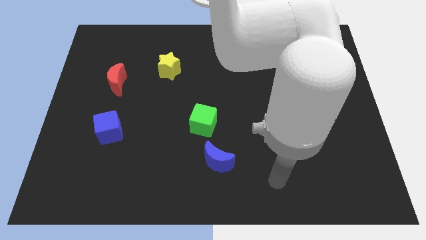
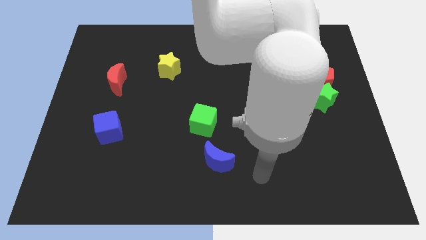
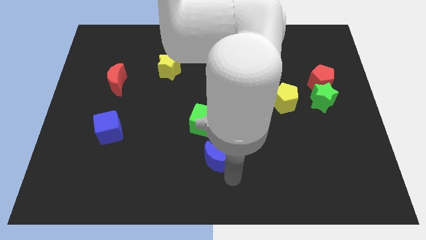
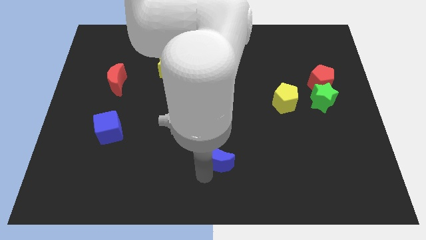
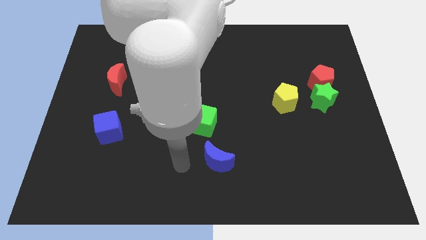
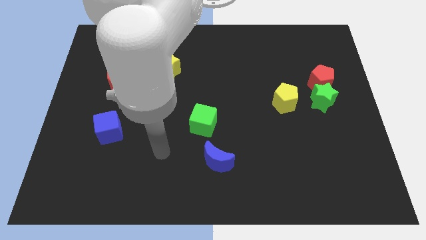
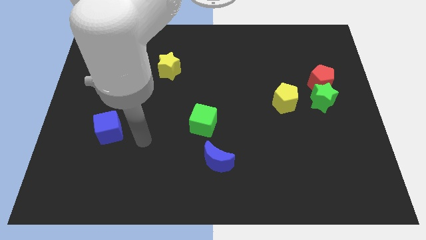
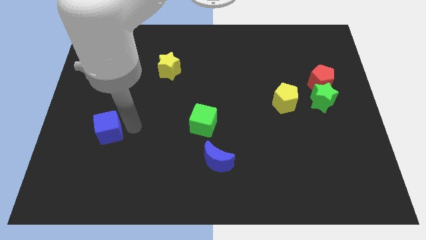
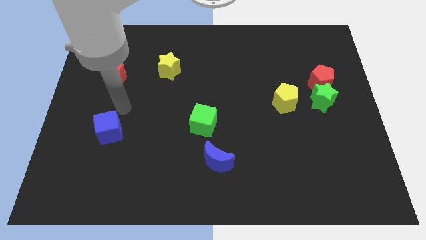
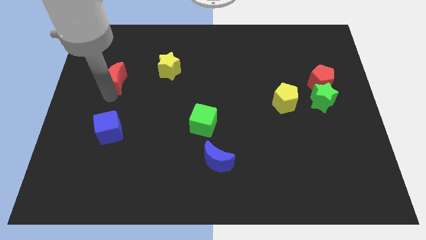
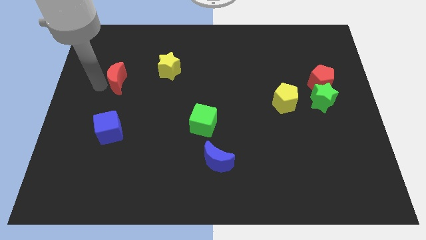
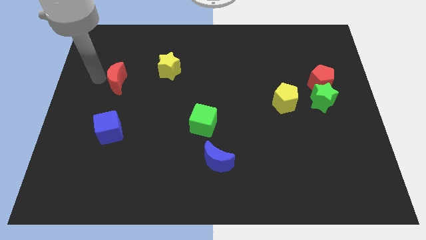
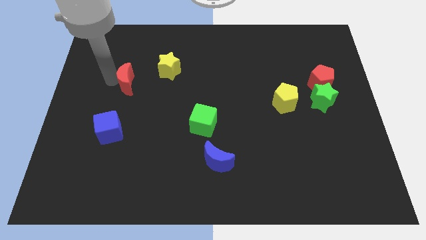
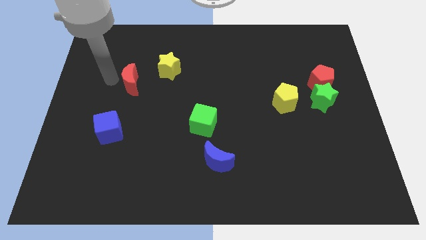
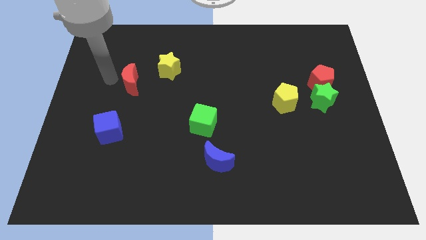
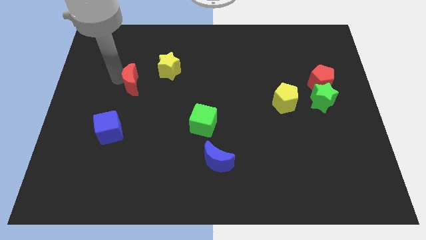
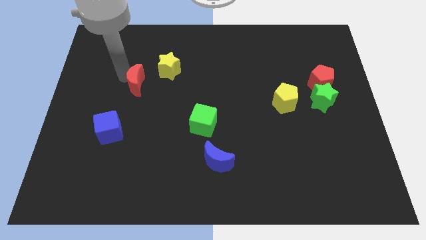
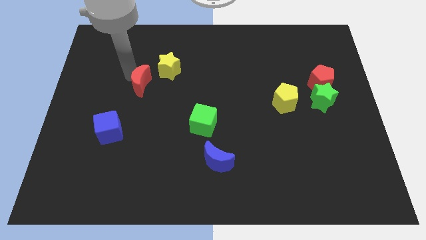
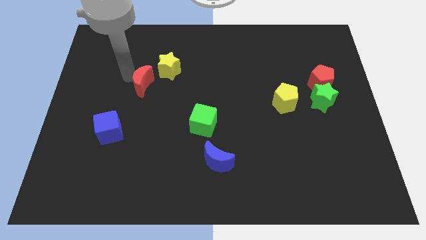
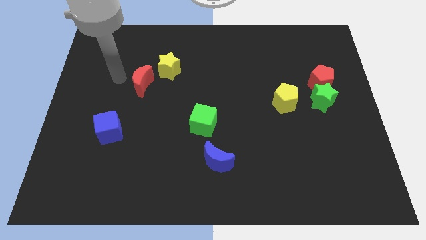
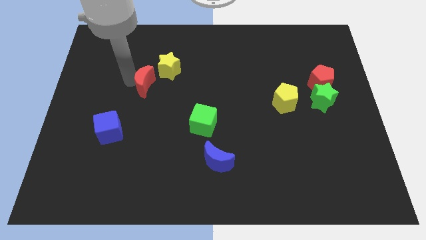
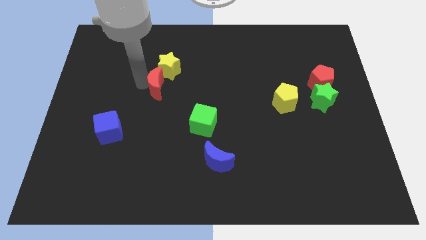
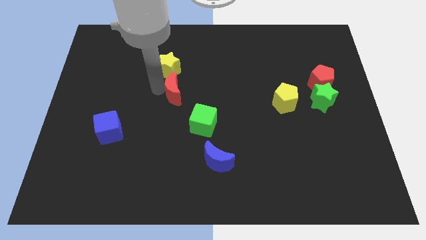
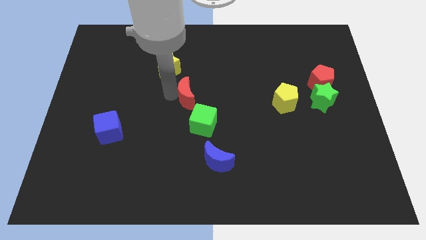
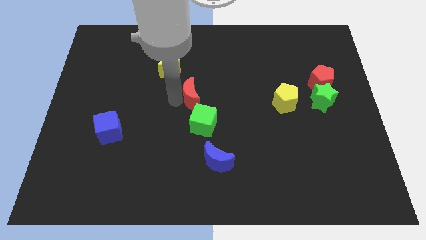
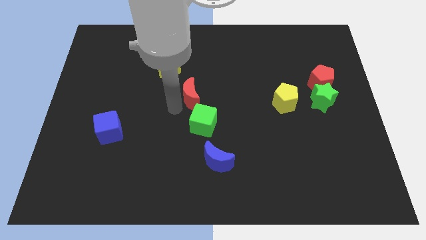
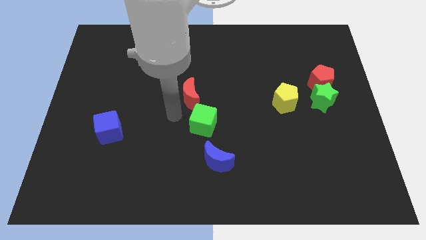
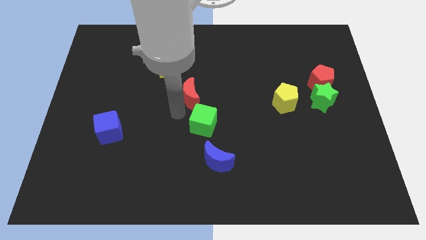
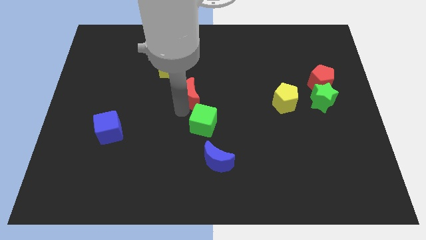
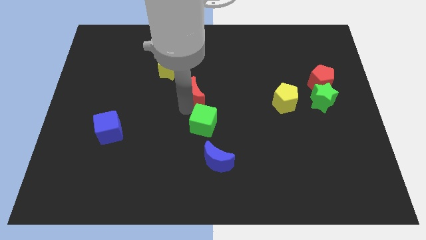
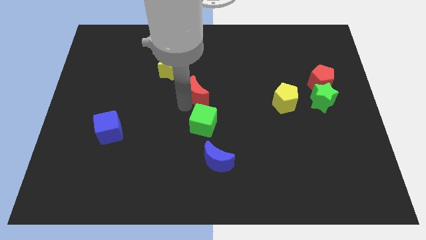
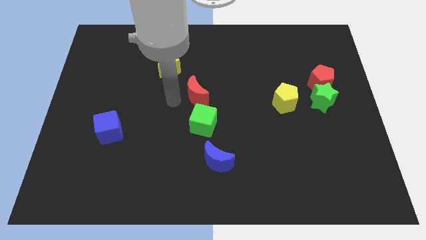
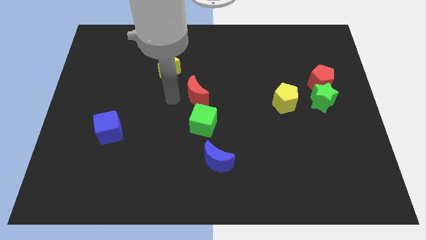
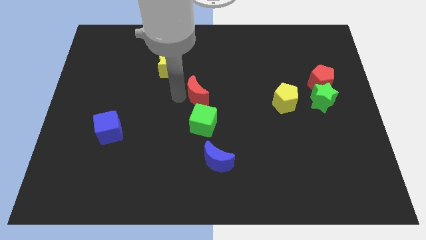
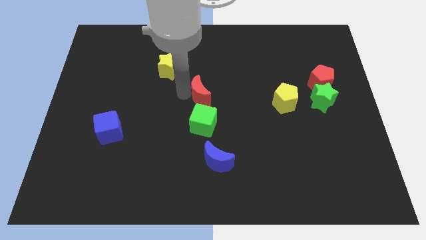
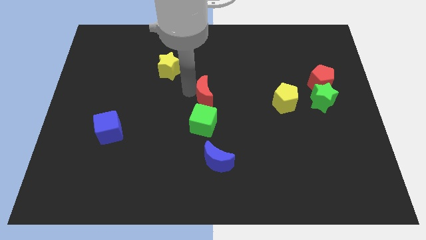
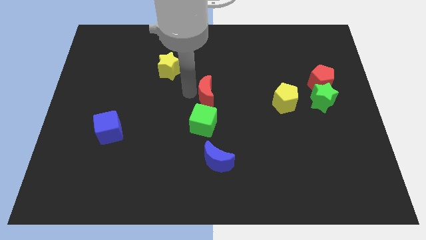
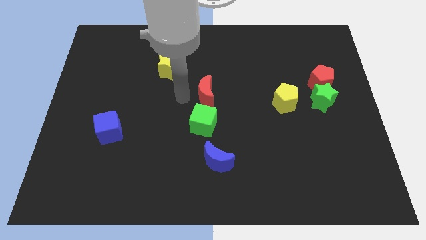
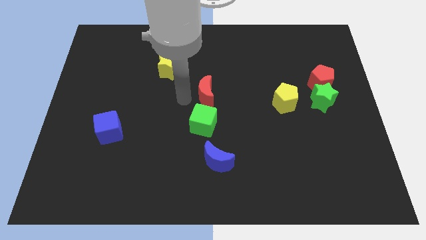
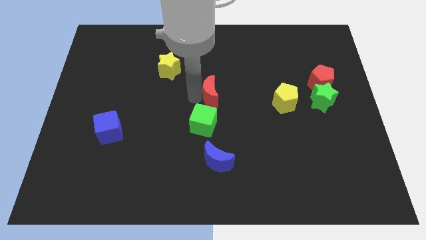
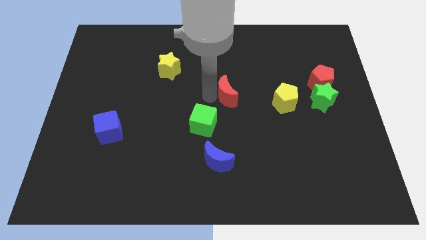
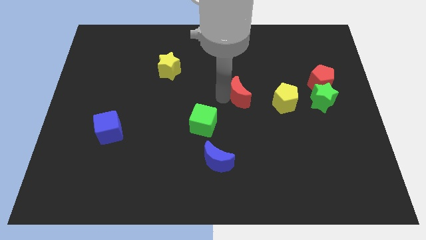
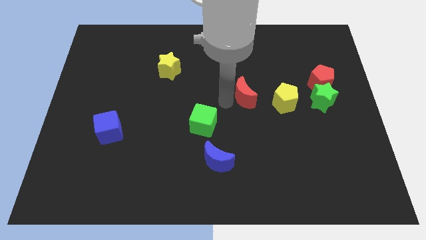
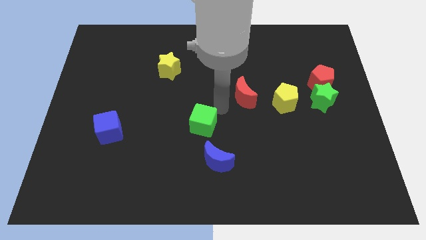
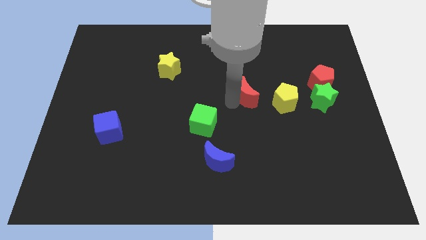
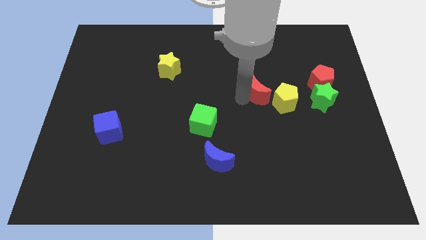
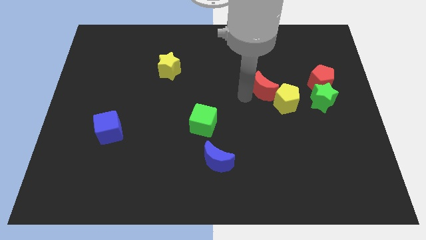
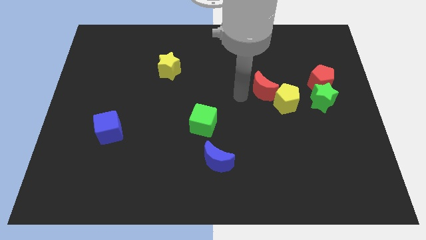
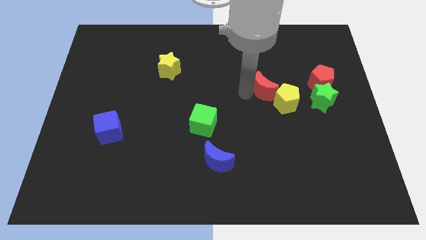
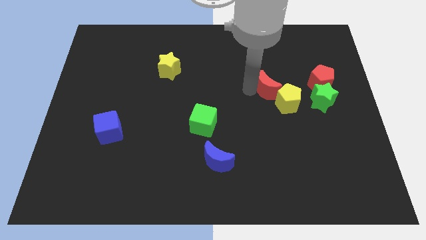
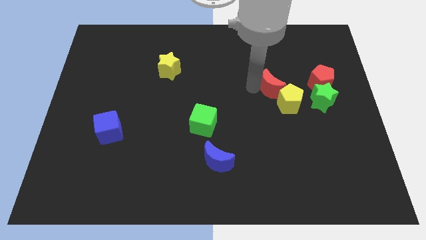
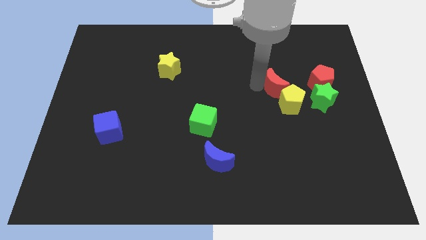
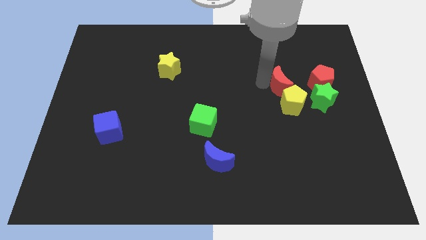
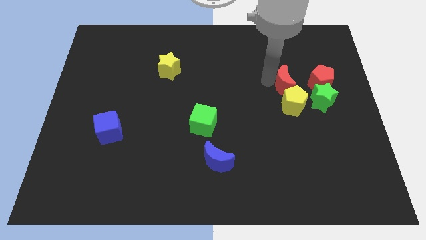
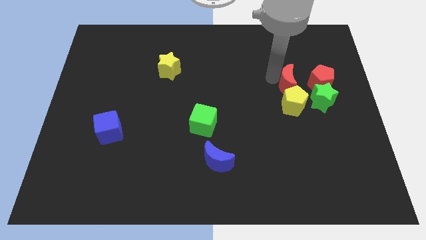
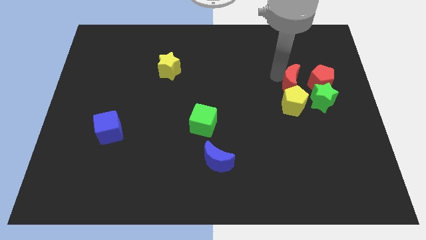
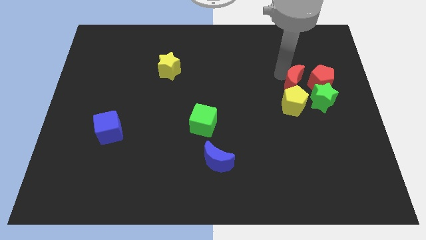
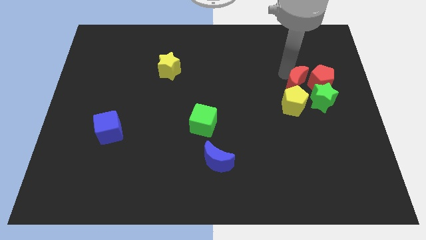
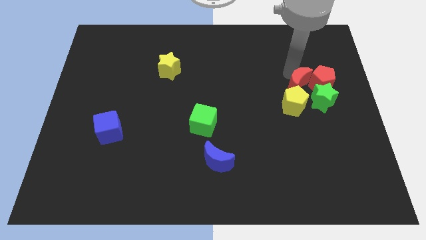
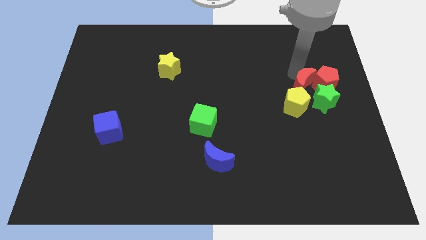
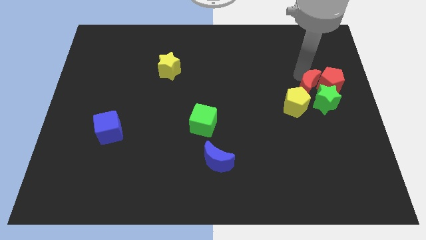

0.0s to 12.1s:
move the red moon towards the green star

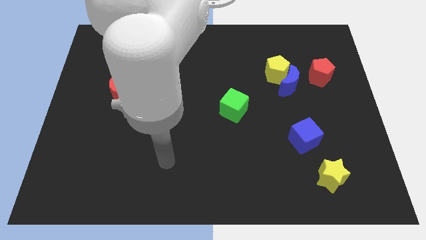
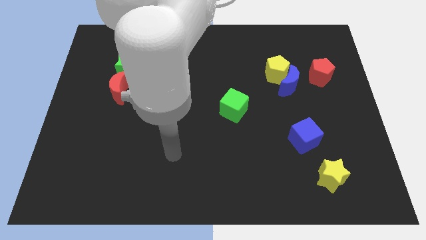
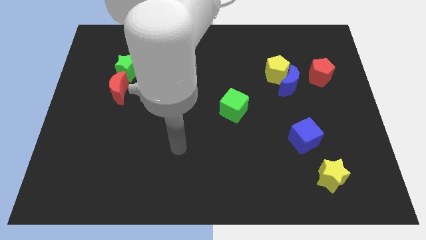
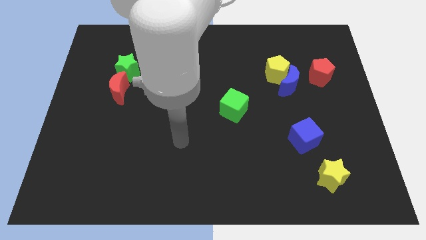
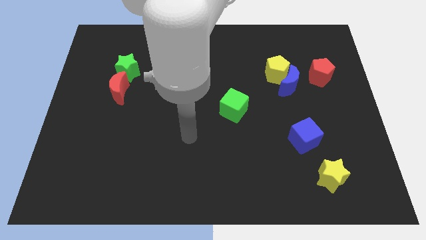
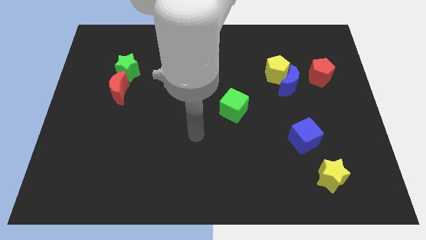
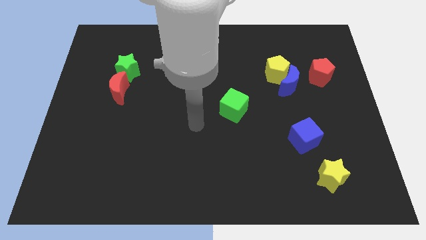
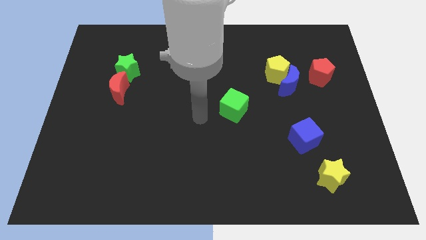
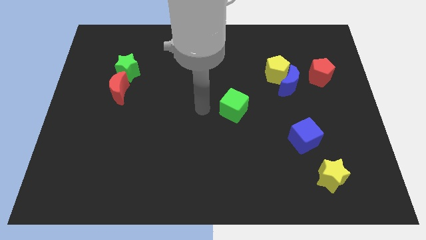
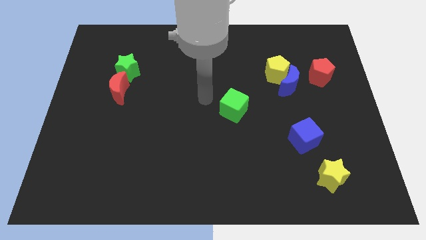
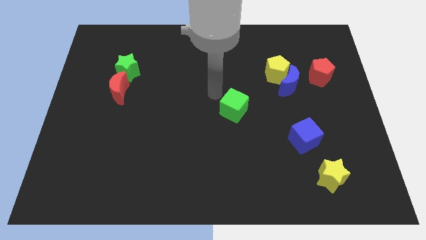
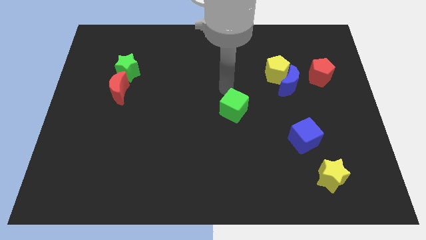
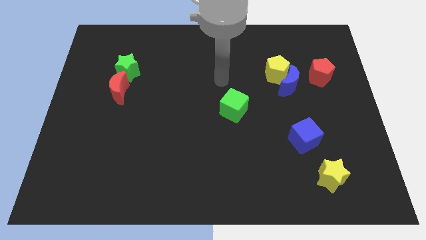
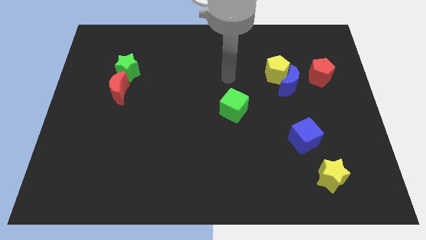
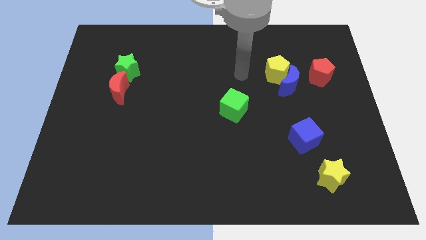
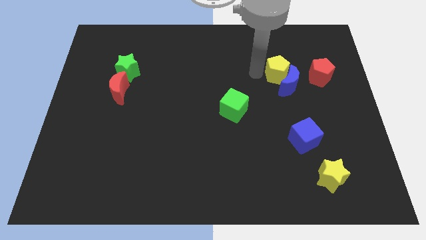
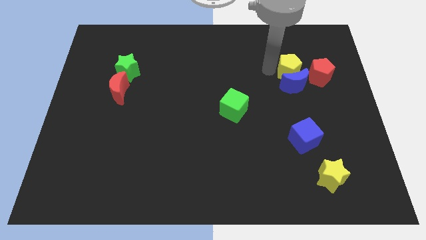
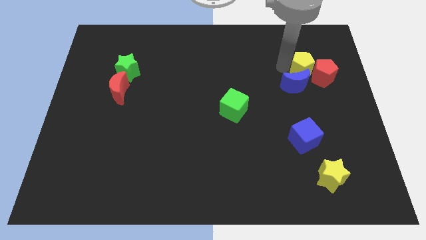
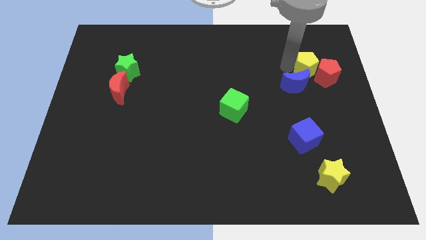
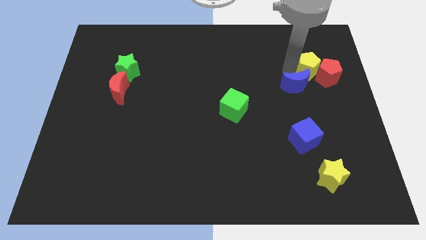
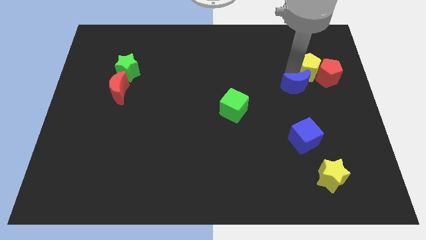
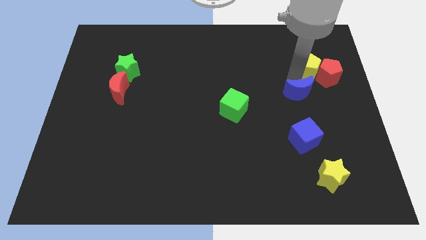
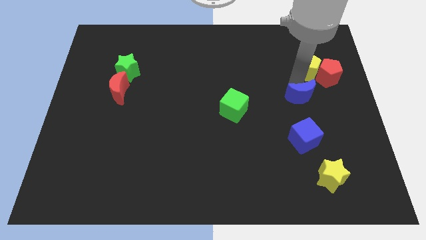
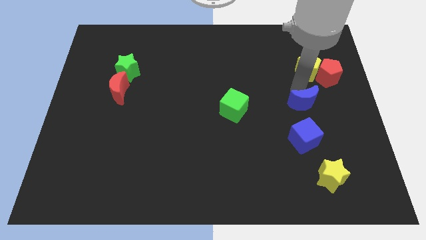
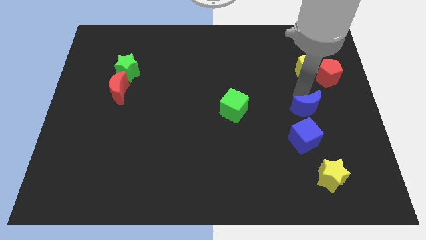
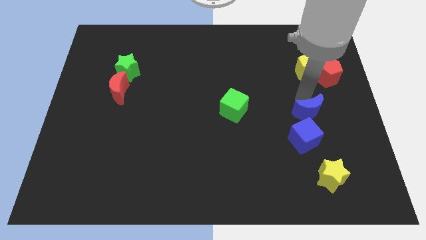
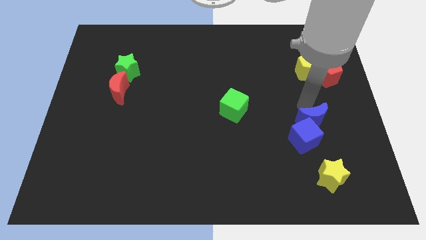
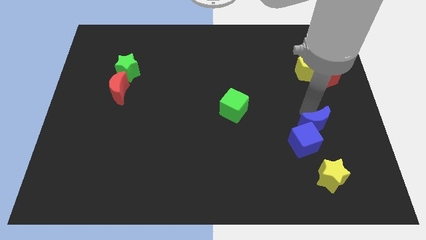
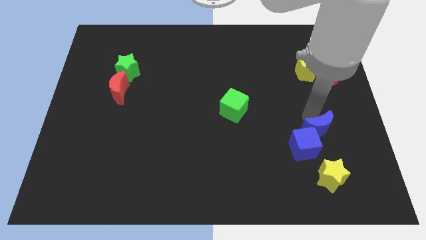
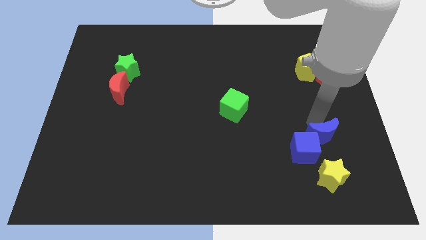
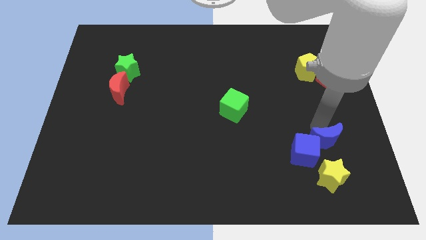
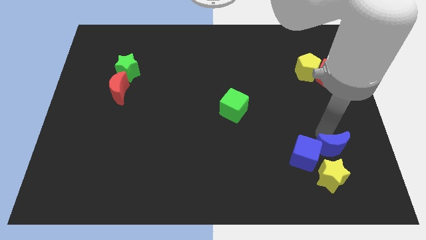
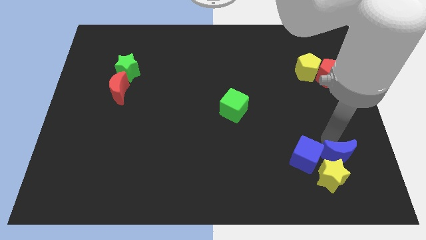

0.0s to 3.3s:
put the blue moon close to the yellow star
